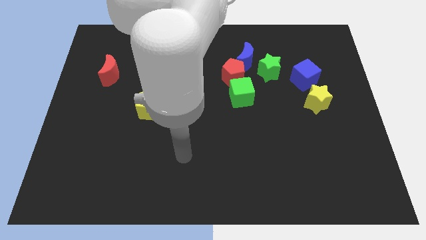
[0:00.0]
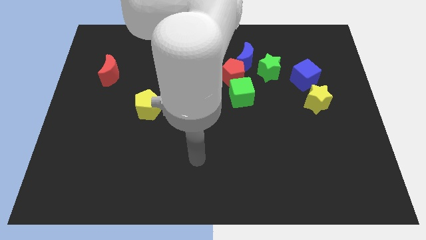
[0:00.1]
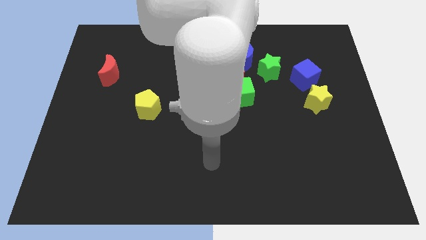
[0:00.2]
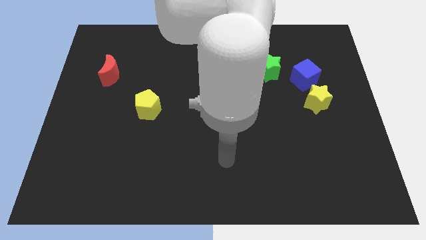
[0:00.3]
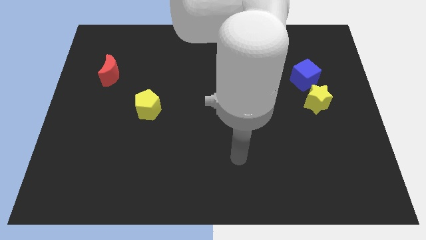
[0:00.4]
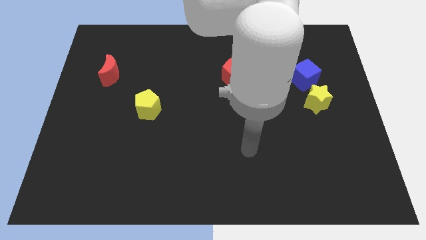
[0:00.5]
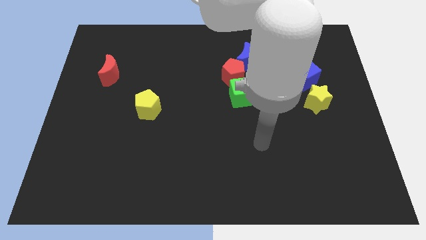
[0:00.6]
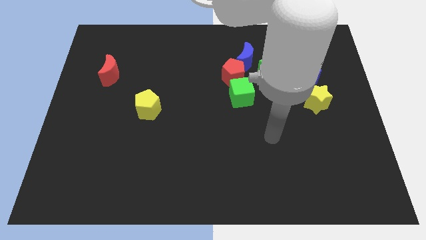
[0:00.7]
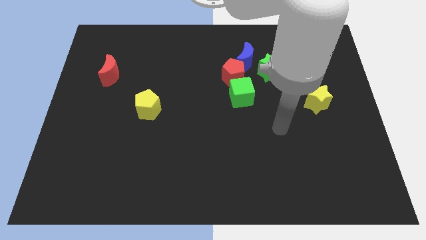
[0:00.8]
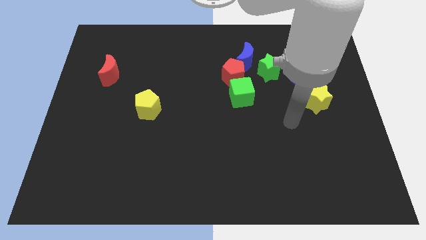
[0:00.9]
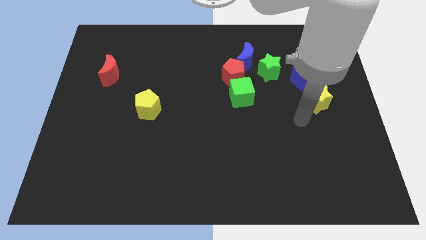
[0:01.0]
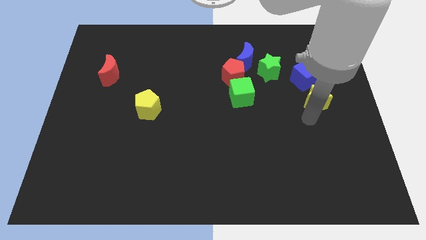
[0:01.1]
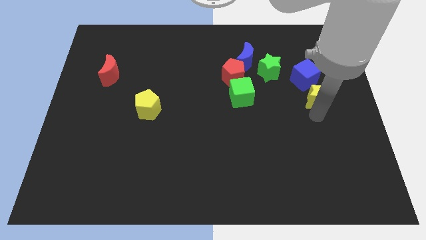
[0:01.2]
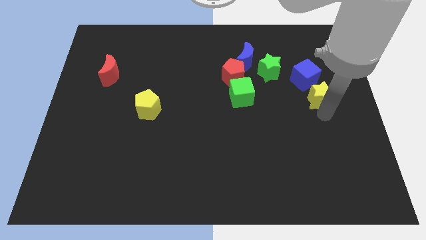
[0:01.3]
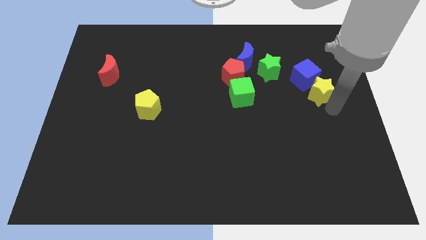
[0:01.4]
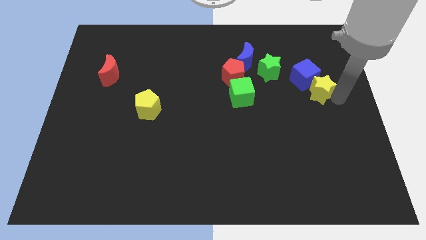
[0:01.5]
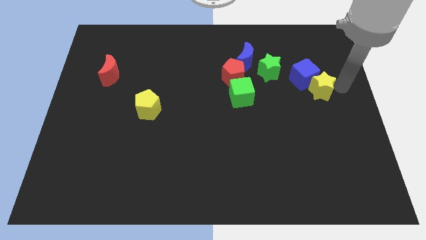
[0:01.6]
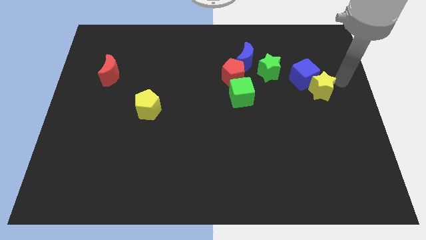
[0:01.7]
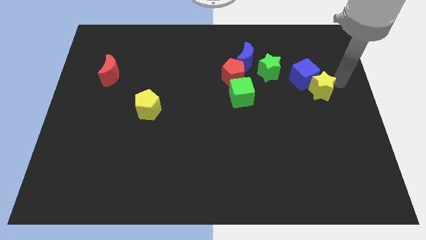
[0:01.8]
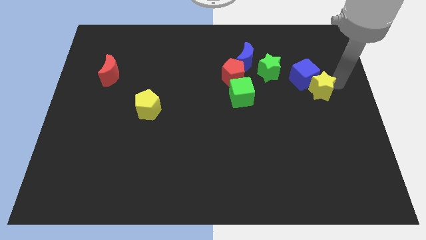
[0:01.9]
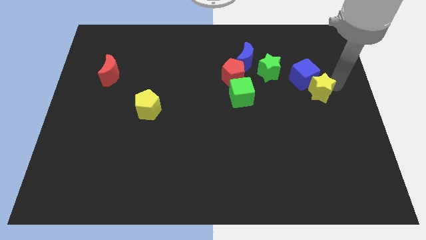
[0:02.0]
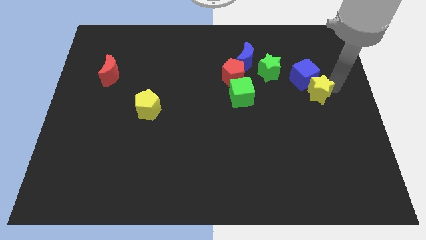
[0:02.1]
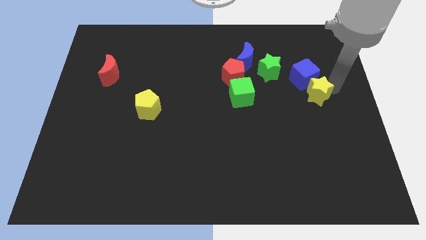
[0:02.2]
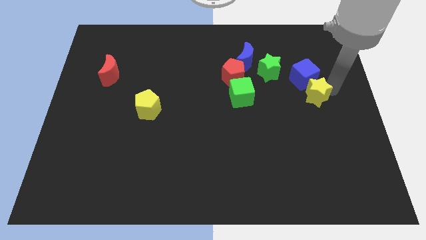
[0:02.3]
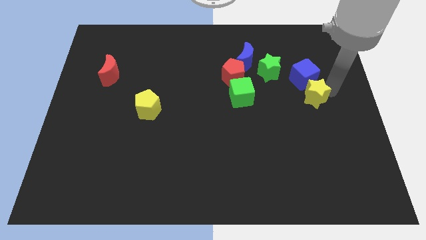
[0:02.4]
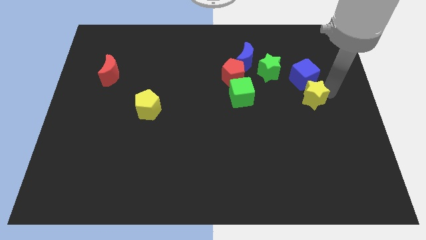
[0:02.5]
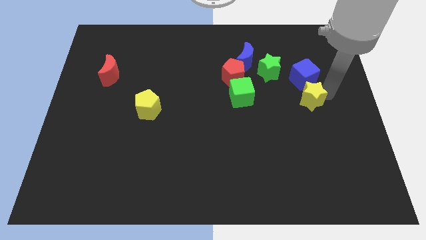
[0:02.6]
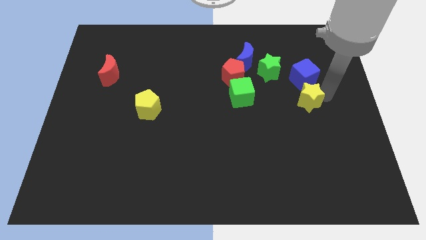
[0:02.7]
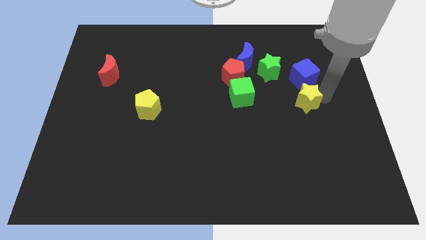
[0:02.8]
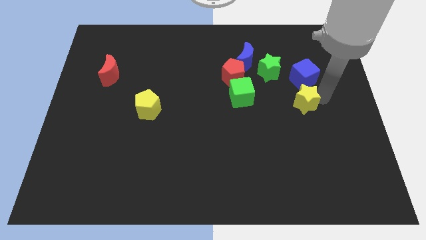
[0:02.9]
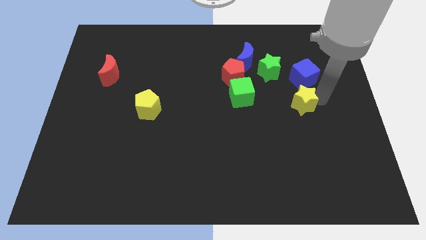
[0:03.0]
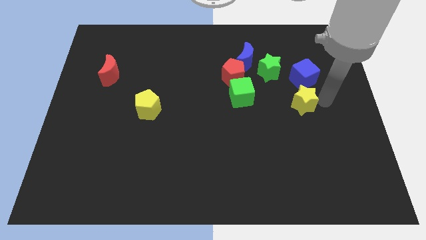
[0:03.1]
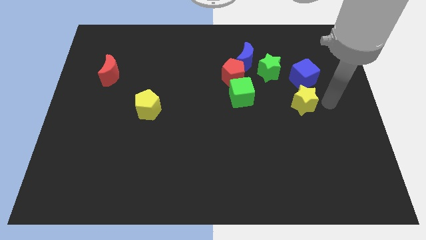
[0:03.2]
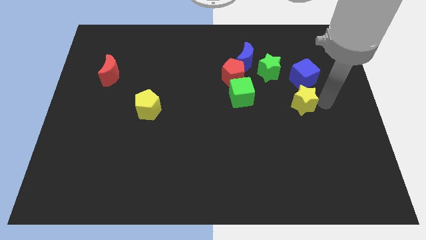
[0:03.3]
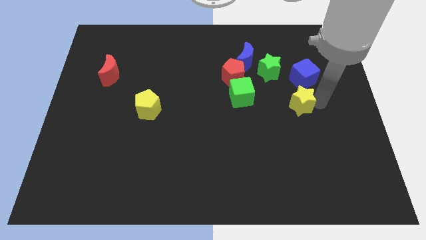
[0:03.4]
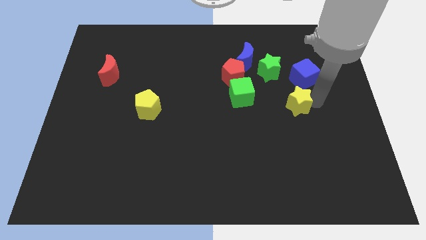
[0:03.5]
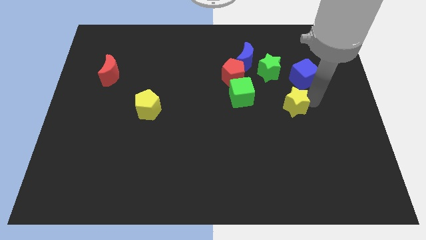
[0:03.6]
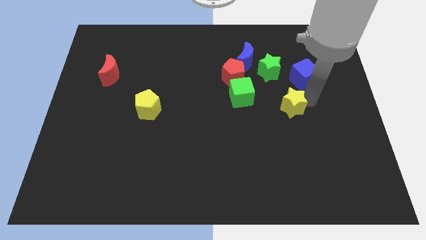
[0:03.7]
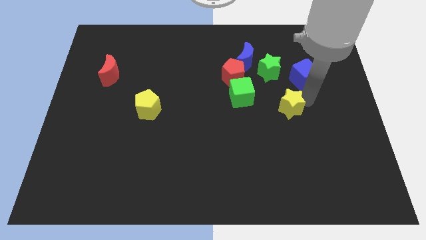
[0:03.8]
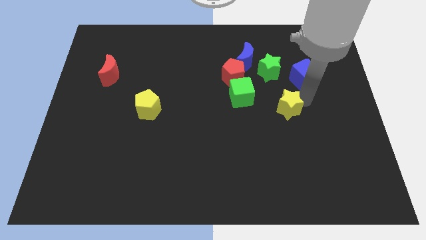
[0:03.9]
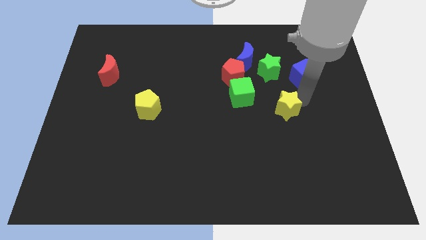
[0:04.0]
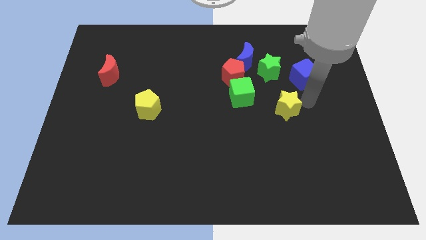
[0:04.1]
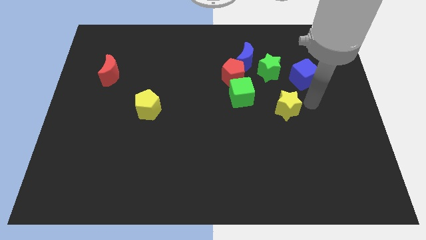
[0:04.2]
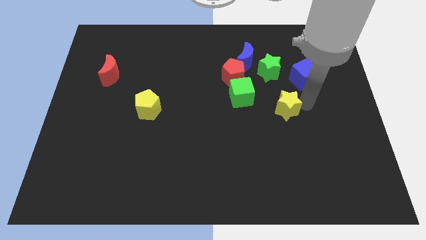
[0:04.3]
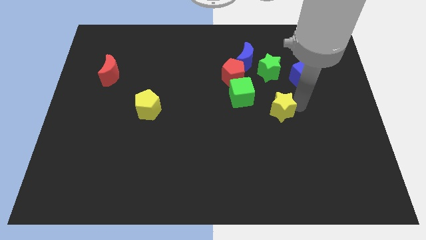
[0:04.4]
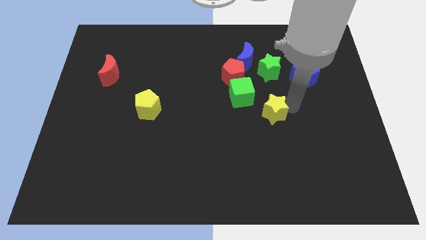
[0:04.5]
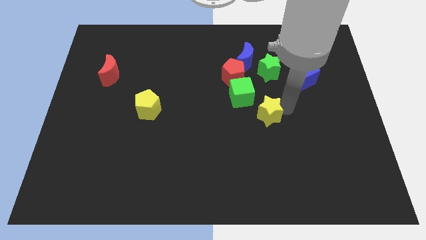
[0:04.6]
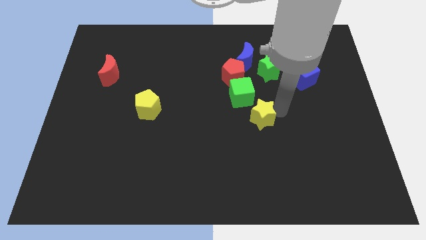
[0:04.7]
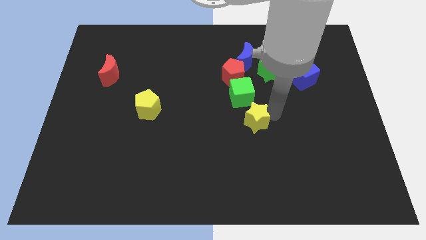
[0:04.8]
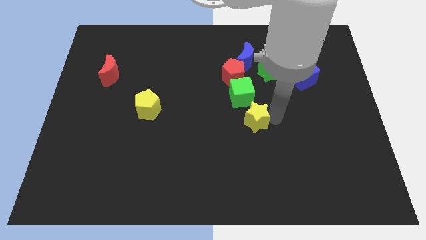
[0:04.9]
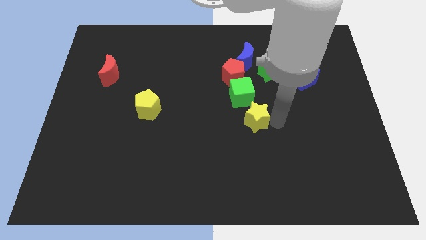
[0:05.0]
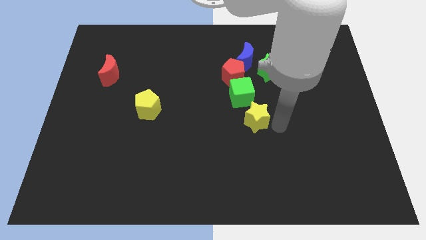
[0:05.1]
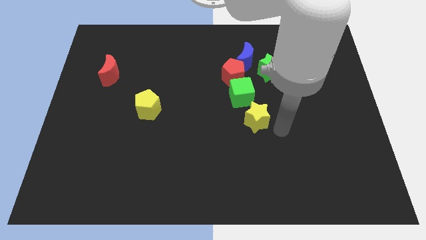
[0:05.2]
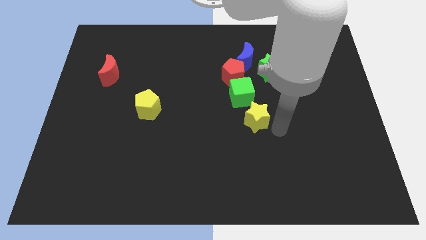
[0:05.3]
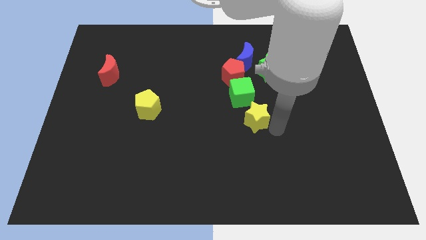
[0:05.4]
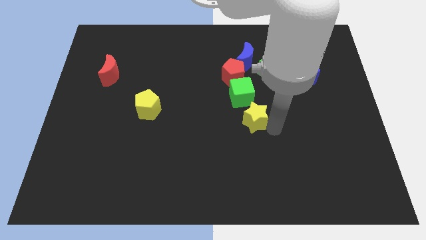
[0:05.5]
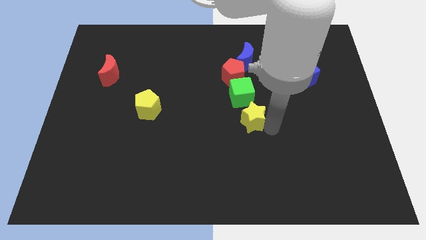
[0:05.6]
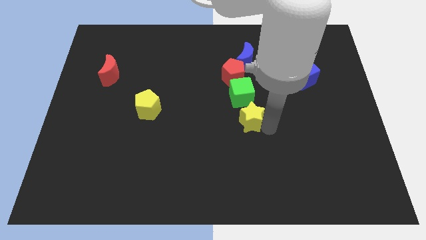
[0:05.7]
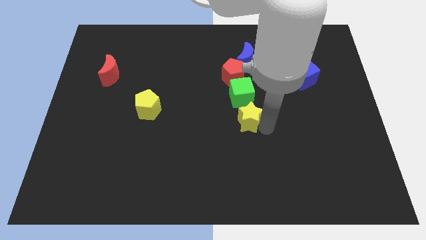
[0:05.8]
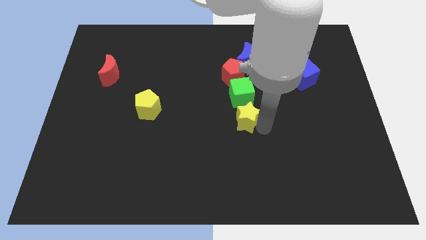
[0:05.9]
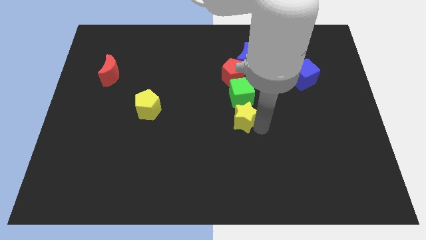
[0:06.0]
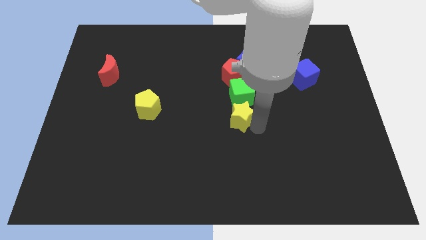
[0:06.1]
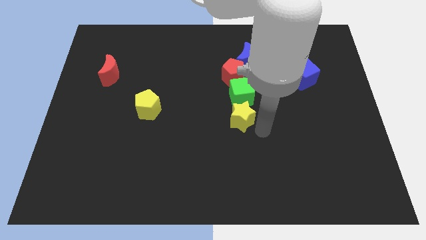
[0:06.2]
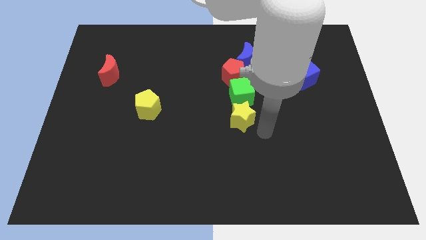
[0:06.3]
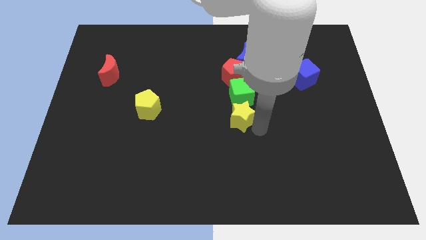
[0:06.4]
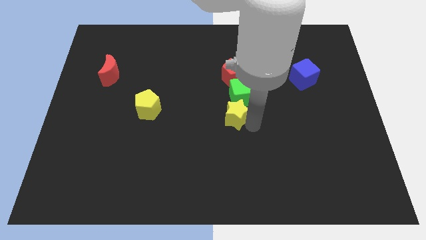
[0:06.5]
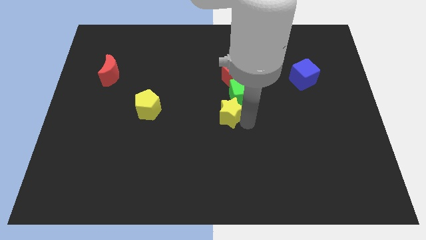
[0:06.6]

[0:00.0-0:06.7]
slide the yellow star left

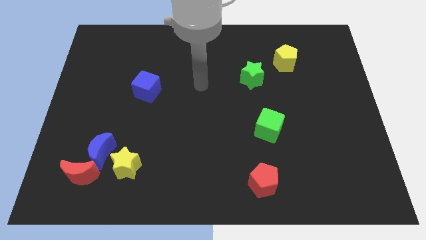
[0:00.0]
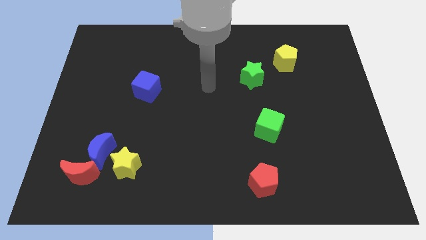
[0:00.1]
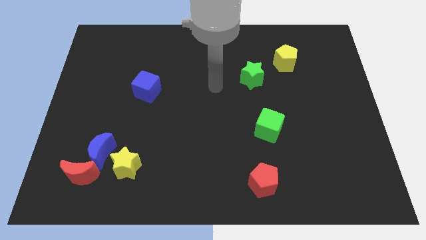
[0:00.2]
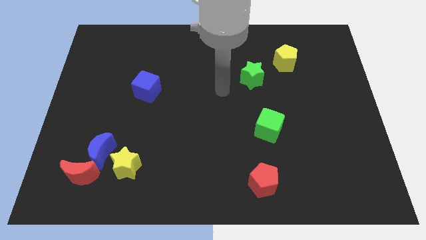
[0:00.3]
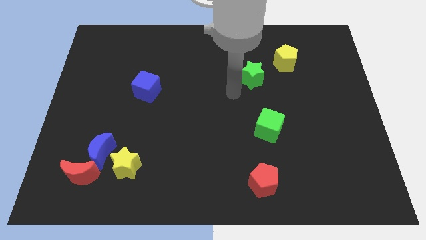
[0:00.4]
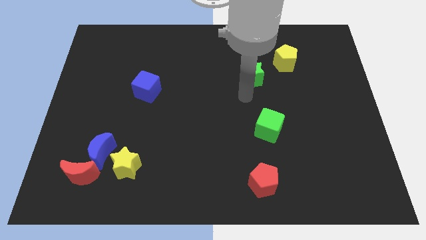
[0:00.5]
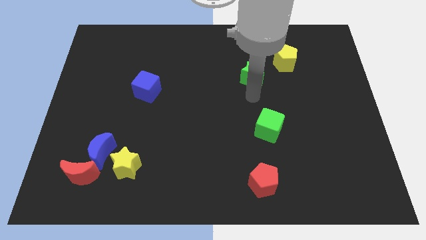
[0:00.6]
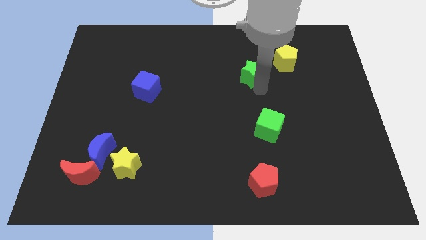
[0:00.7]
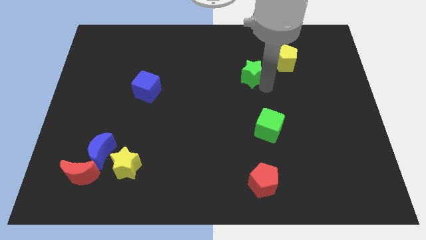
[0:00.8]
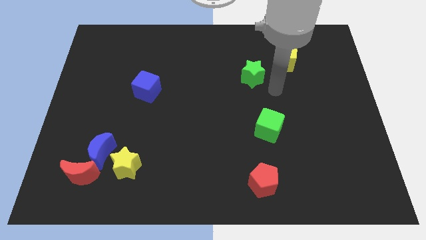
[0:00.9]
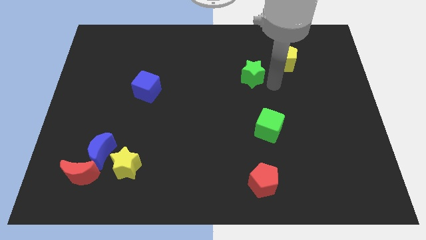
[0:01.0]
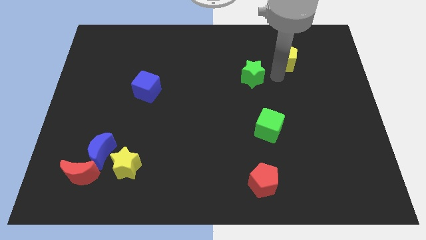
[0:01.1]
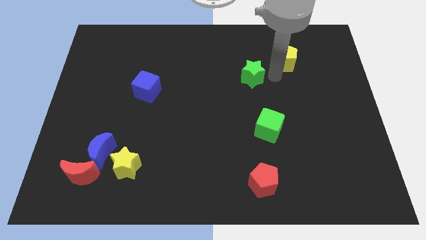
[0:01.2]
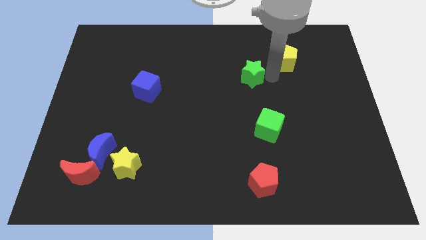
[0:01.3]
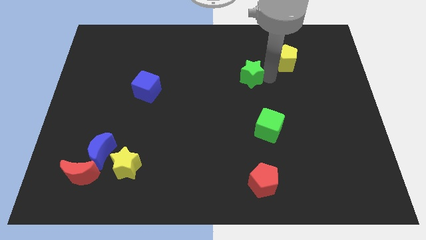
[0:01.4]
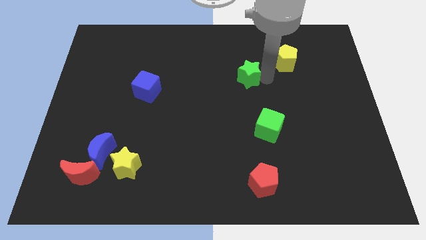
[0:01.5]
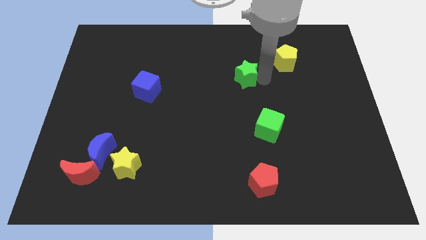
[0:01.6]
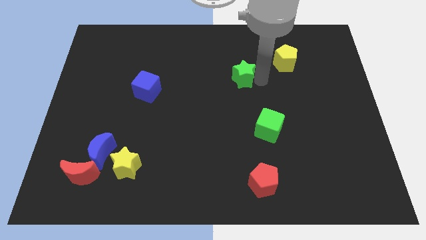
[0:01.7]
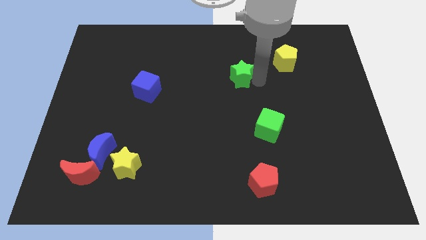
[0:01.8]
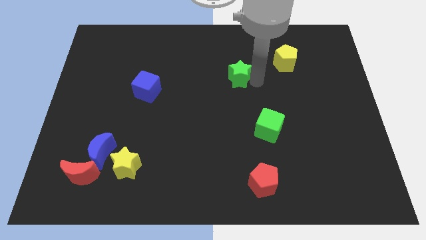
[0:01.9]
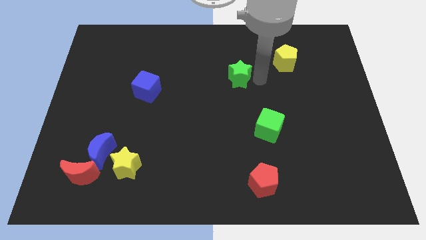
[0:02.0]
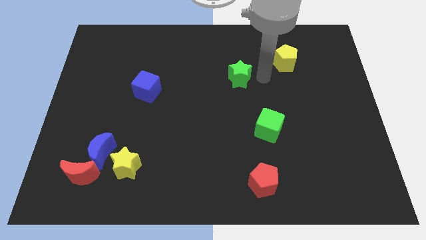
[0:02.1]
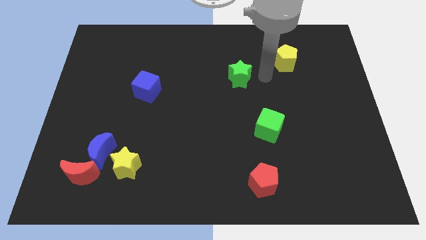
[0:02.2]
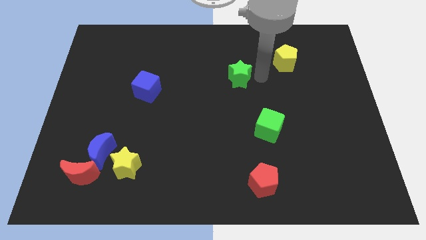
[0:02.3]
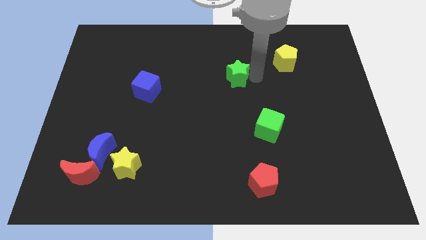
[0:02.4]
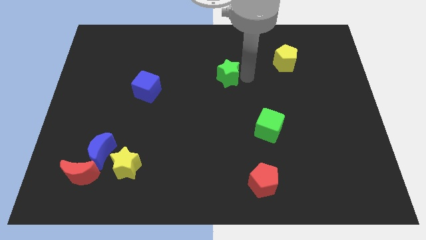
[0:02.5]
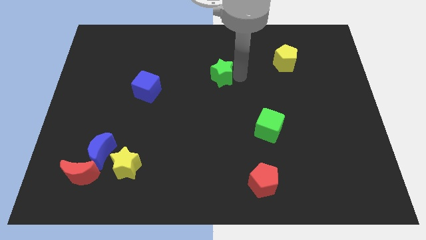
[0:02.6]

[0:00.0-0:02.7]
push the green star to the left a little bit
